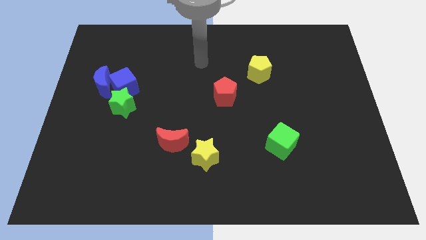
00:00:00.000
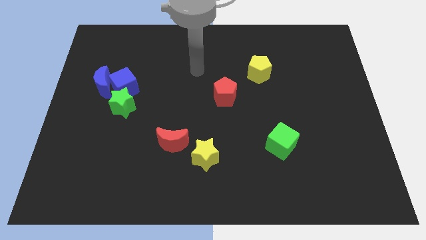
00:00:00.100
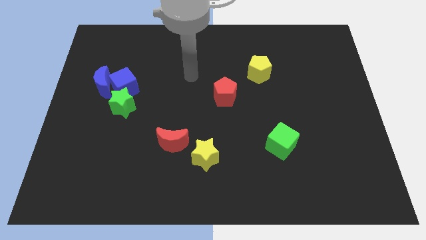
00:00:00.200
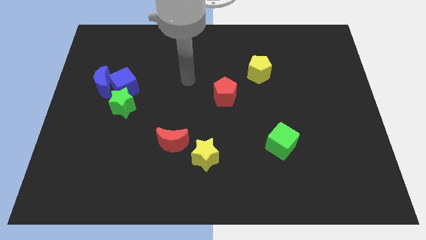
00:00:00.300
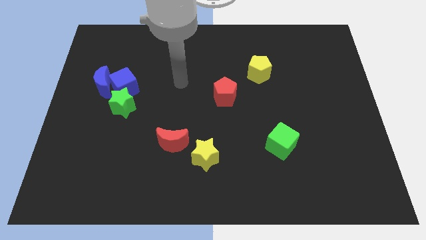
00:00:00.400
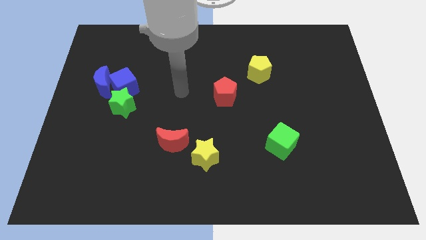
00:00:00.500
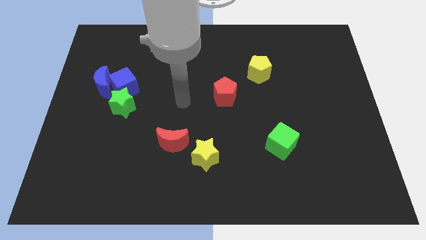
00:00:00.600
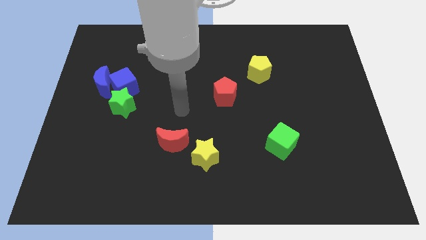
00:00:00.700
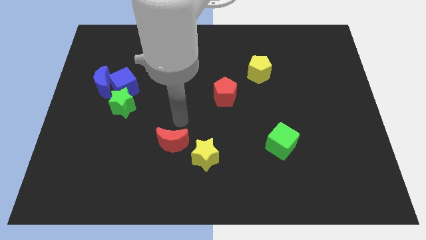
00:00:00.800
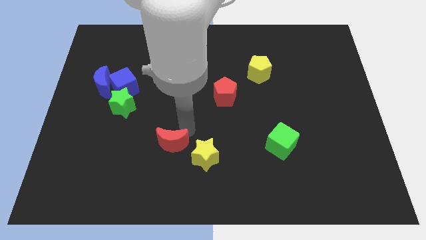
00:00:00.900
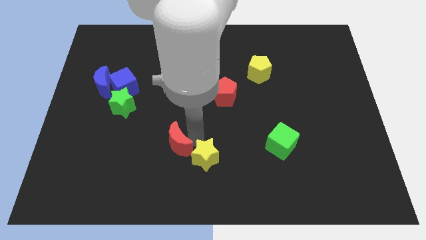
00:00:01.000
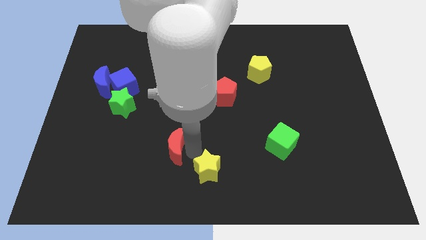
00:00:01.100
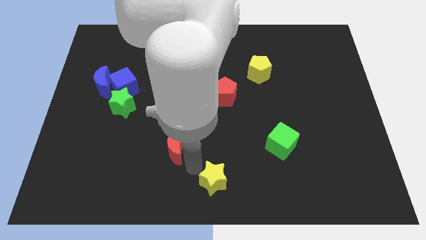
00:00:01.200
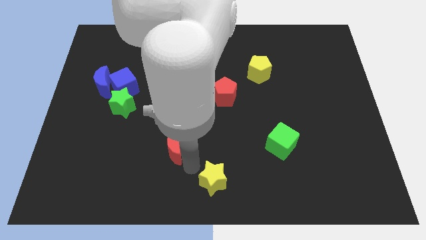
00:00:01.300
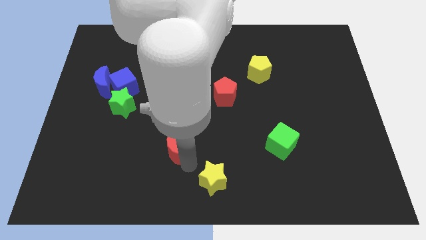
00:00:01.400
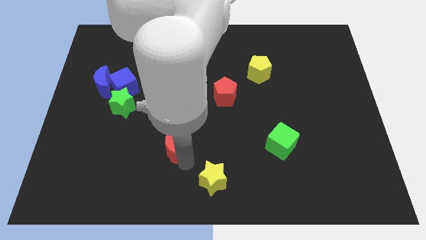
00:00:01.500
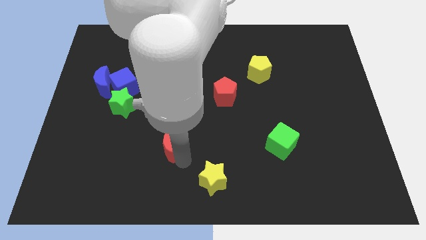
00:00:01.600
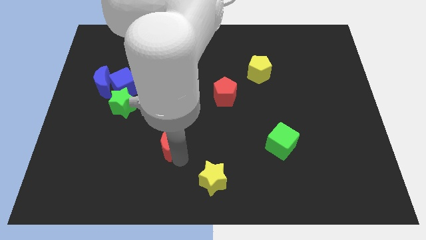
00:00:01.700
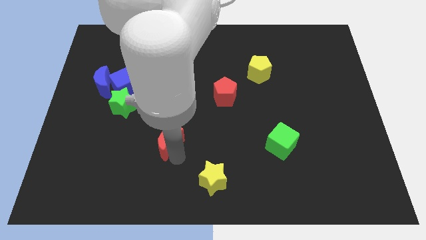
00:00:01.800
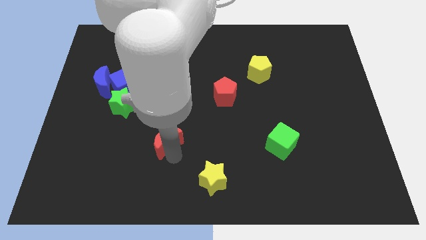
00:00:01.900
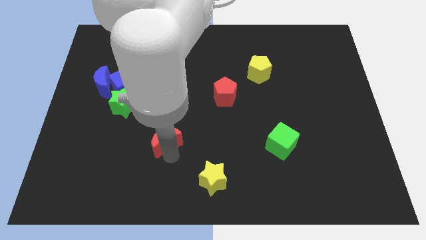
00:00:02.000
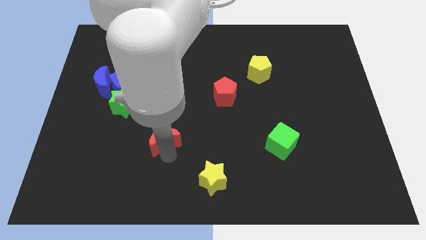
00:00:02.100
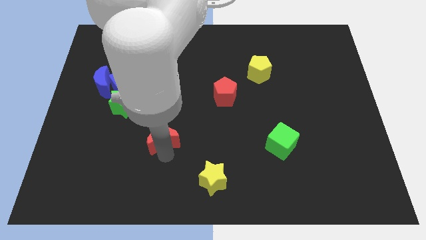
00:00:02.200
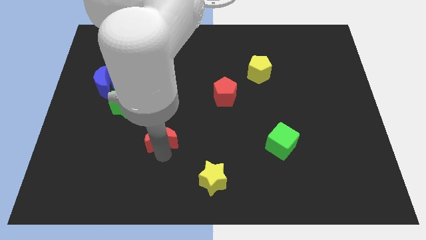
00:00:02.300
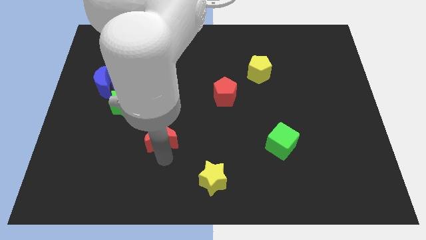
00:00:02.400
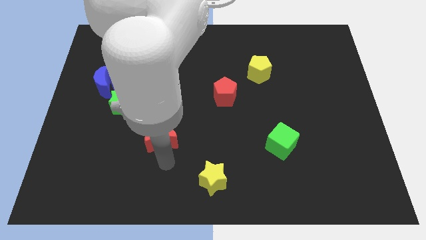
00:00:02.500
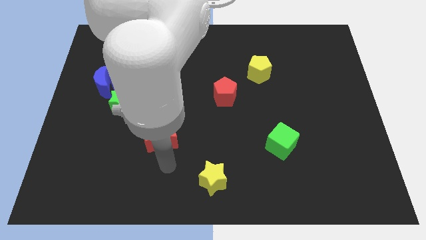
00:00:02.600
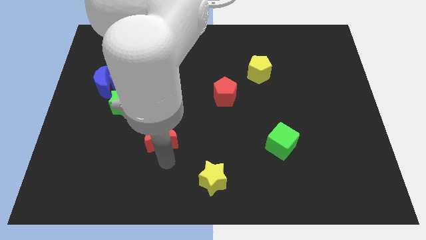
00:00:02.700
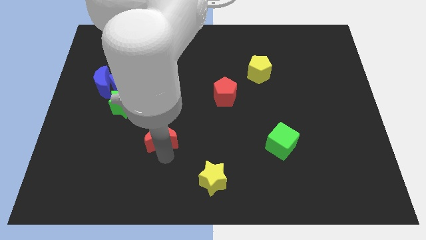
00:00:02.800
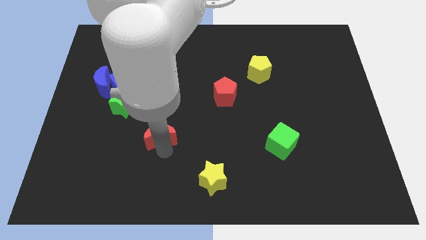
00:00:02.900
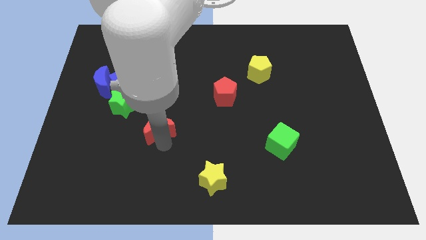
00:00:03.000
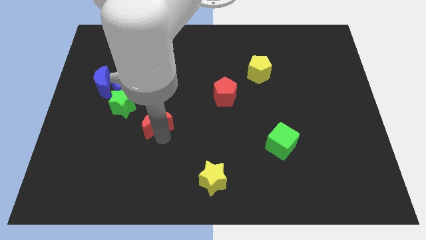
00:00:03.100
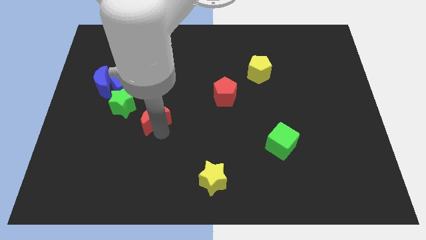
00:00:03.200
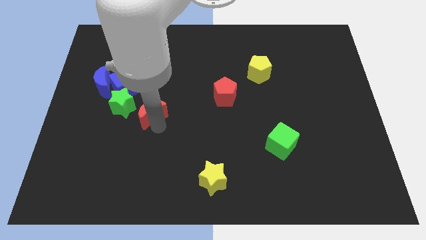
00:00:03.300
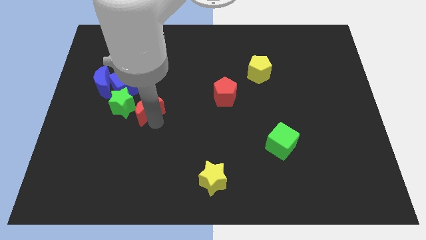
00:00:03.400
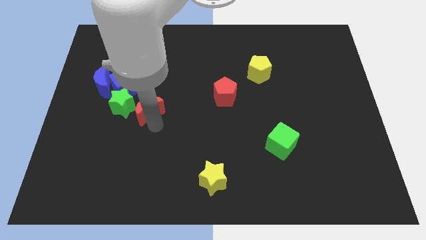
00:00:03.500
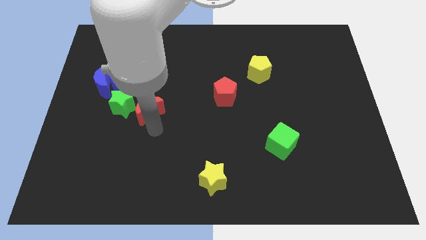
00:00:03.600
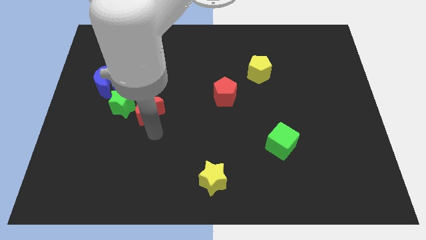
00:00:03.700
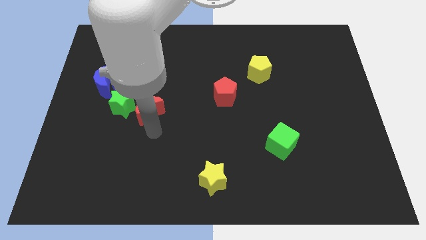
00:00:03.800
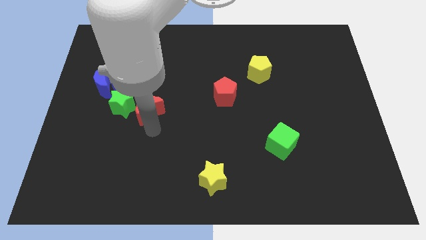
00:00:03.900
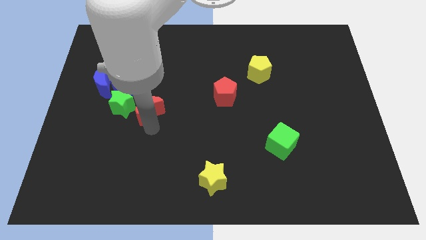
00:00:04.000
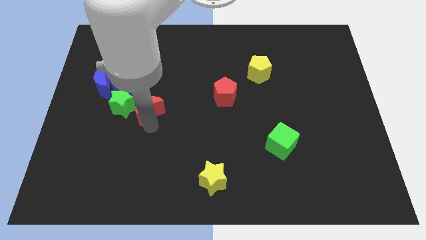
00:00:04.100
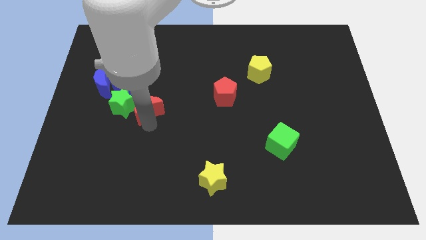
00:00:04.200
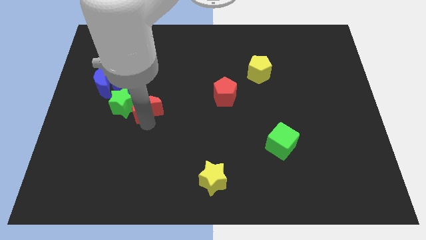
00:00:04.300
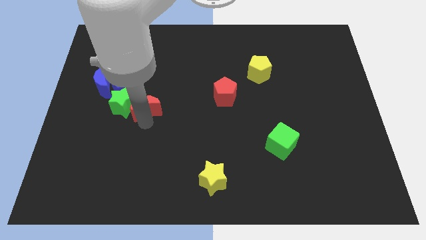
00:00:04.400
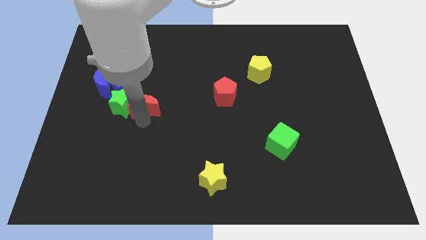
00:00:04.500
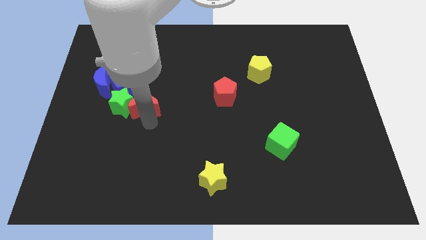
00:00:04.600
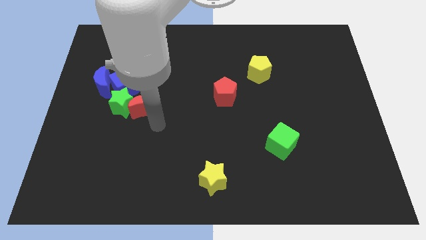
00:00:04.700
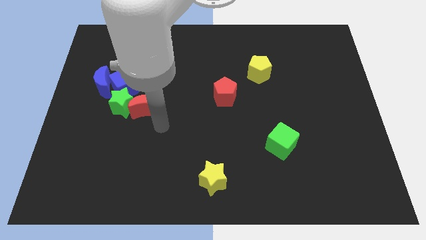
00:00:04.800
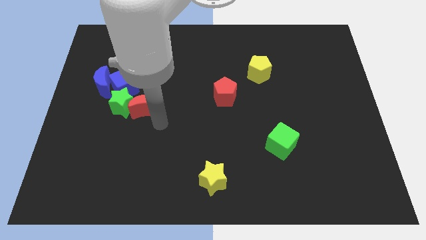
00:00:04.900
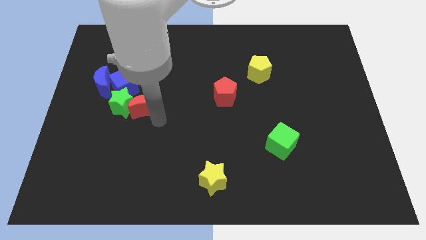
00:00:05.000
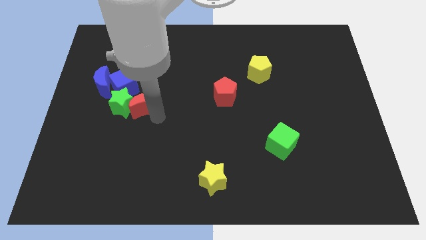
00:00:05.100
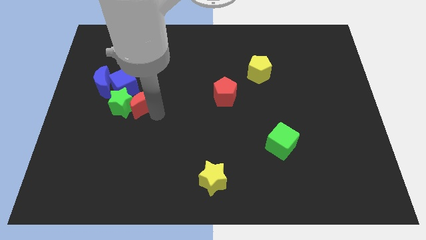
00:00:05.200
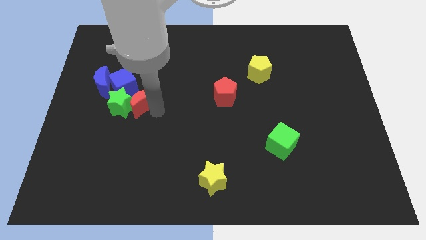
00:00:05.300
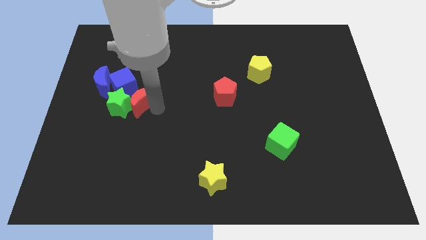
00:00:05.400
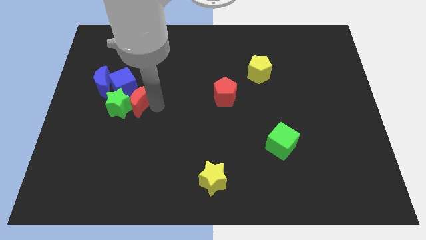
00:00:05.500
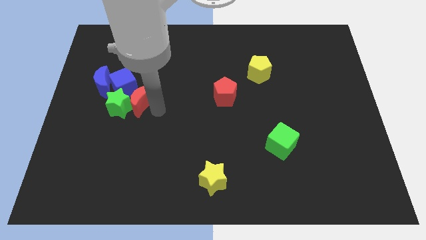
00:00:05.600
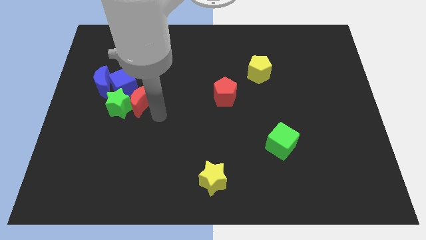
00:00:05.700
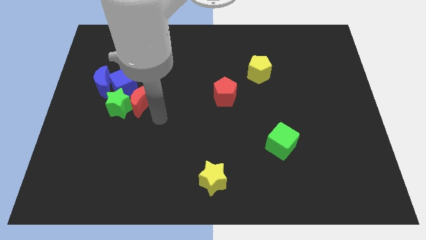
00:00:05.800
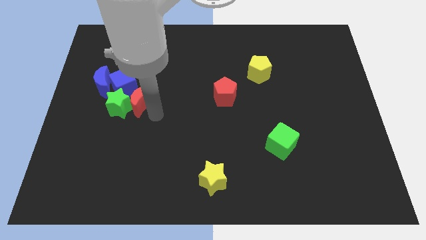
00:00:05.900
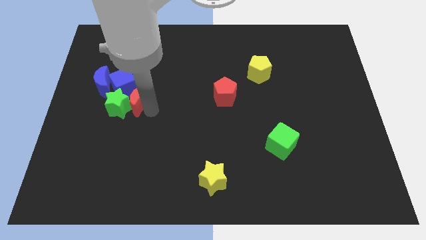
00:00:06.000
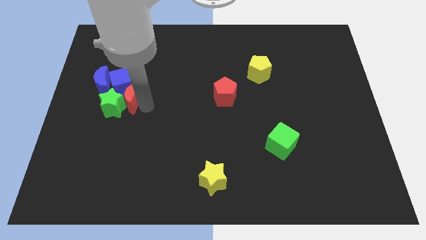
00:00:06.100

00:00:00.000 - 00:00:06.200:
slide the red moon next to the blue cube
